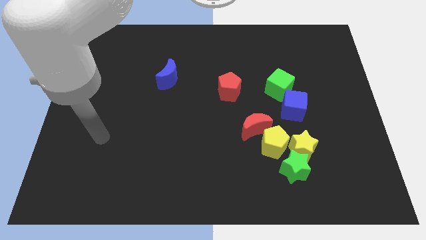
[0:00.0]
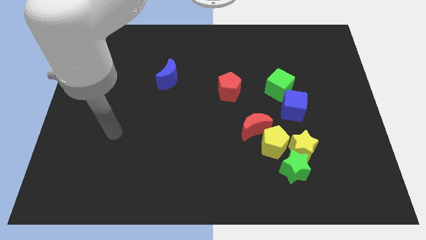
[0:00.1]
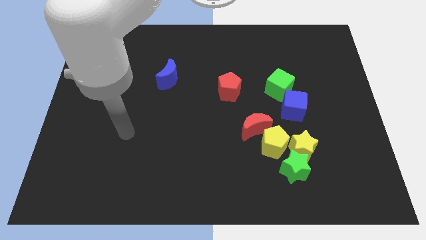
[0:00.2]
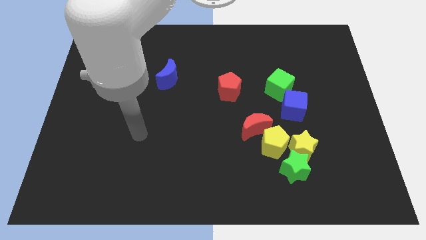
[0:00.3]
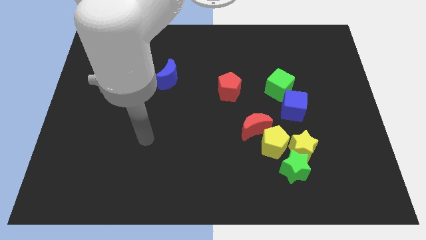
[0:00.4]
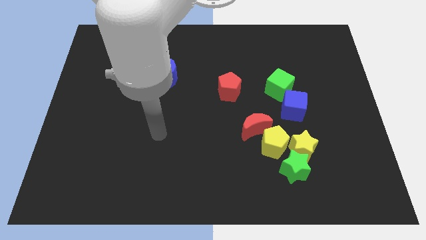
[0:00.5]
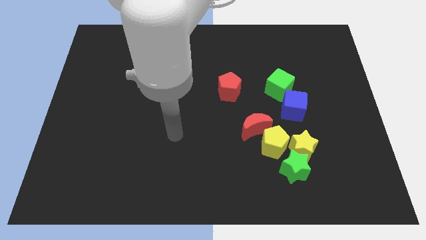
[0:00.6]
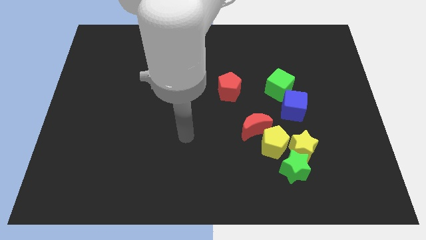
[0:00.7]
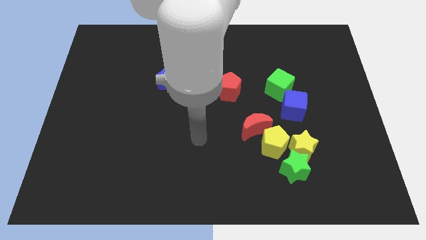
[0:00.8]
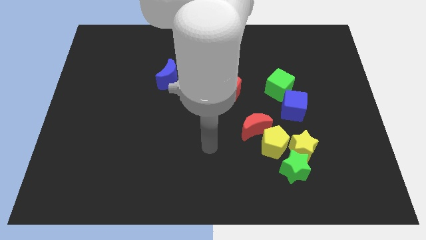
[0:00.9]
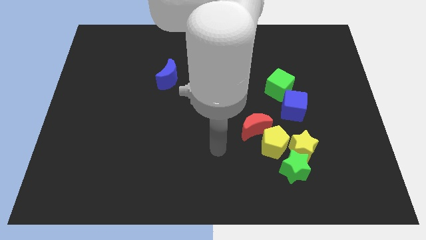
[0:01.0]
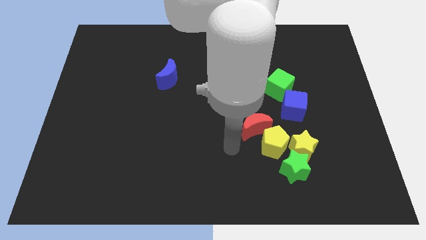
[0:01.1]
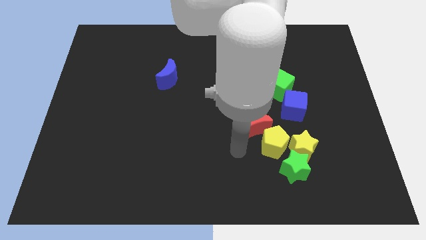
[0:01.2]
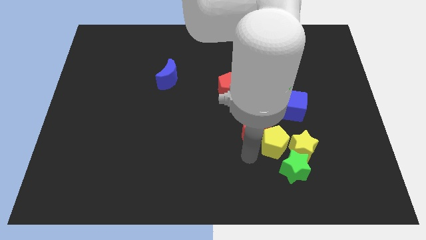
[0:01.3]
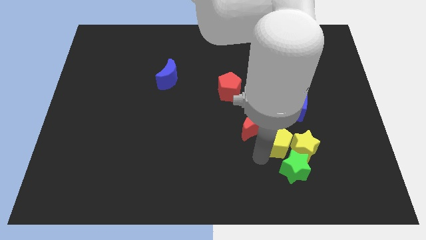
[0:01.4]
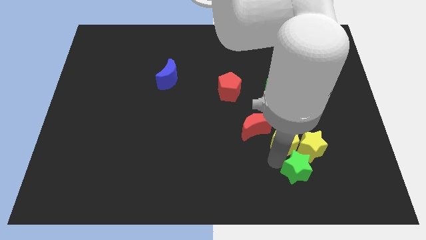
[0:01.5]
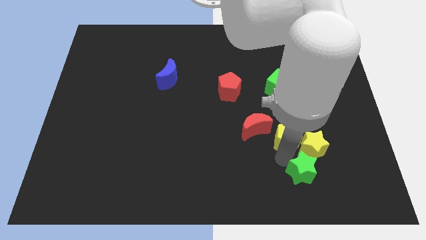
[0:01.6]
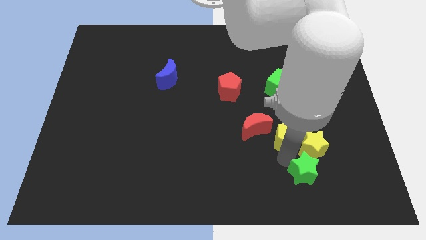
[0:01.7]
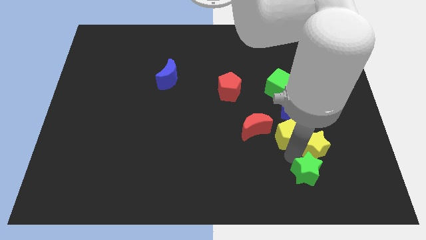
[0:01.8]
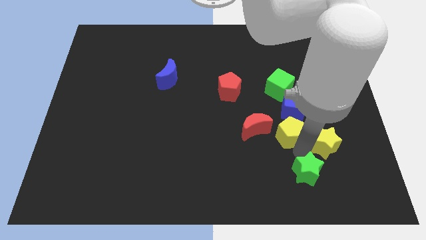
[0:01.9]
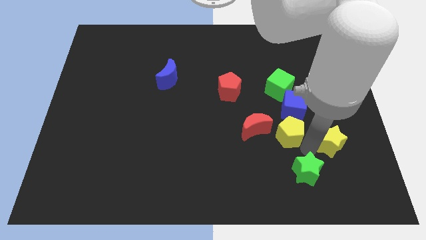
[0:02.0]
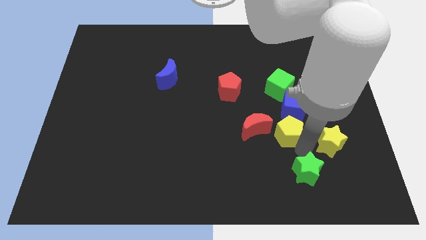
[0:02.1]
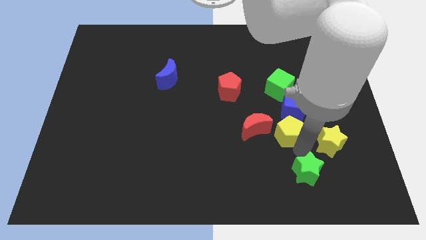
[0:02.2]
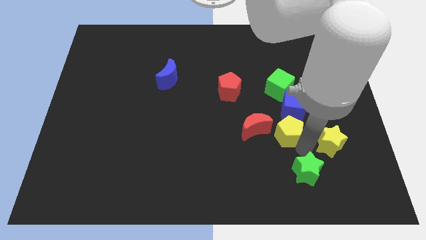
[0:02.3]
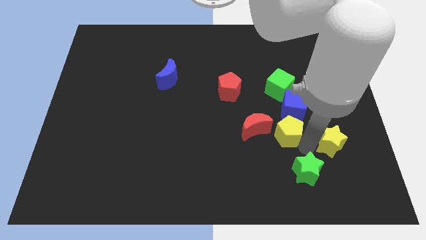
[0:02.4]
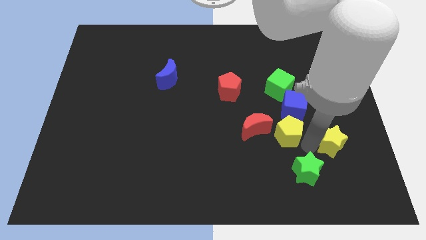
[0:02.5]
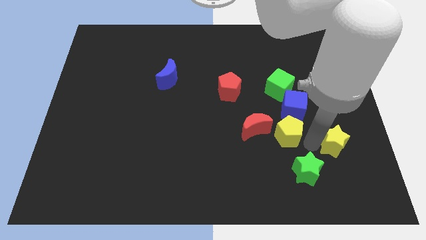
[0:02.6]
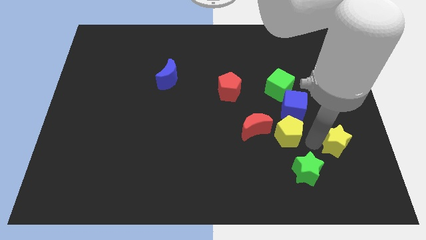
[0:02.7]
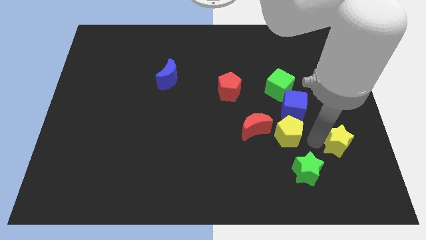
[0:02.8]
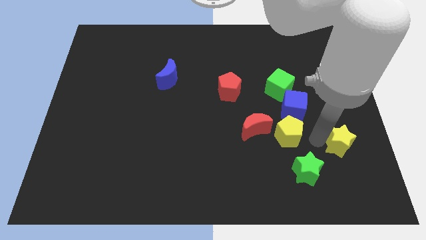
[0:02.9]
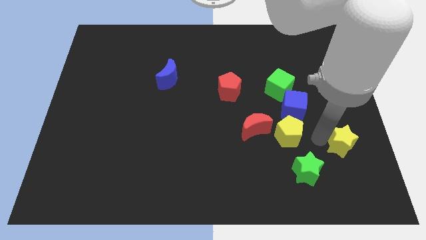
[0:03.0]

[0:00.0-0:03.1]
pull the yellow star apart from the green star and yellow pentagon

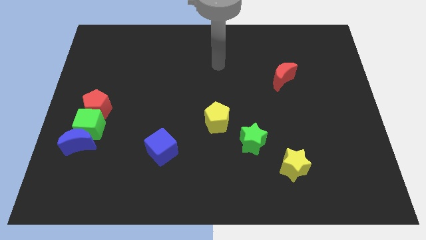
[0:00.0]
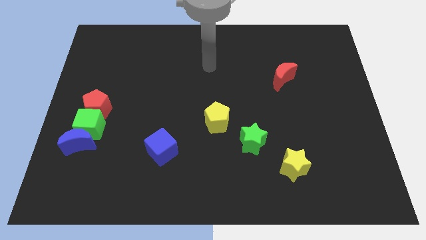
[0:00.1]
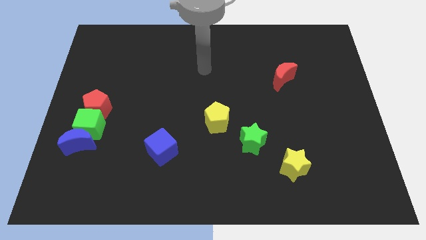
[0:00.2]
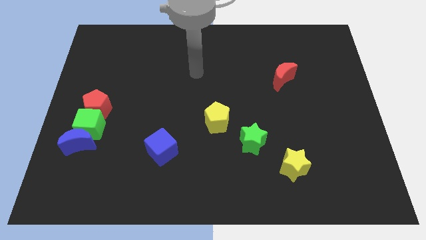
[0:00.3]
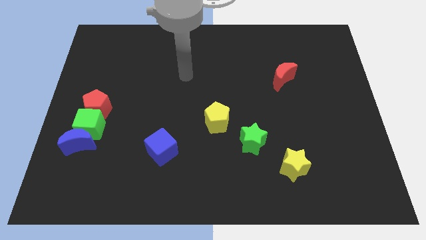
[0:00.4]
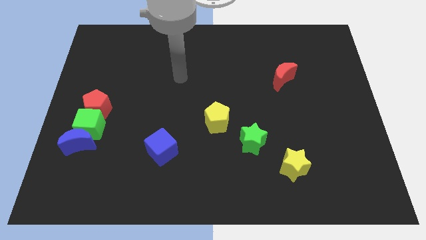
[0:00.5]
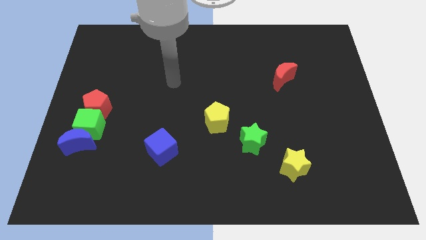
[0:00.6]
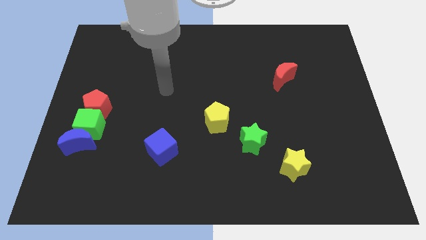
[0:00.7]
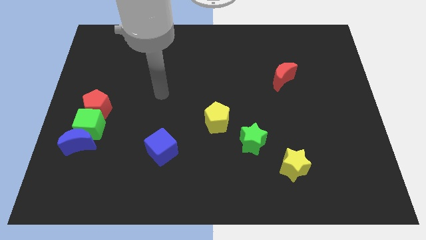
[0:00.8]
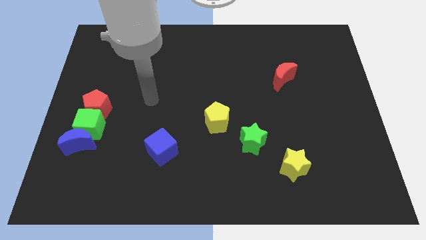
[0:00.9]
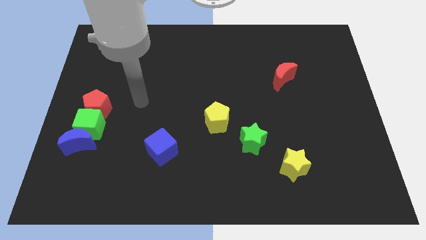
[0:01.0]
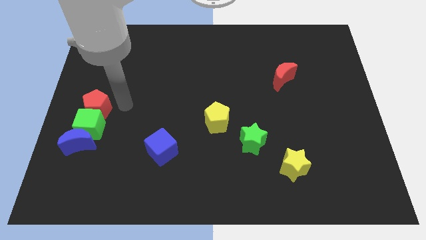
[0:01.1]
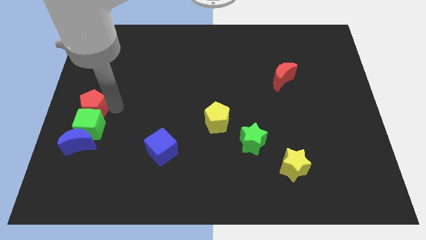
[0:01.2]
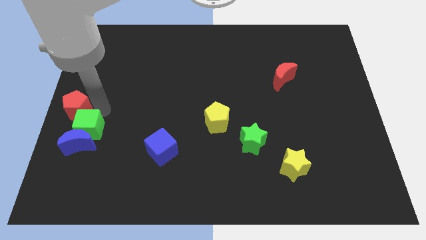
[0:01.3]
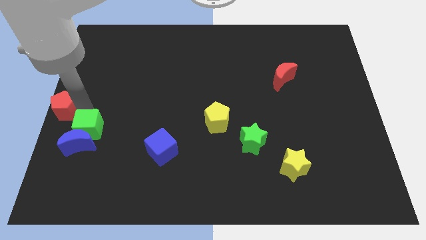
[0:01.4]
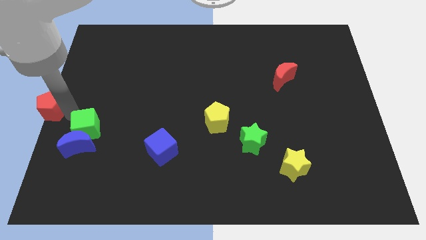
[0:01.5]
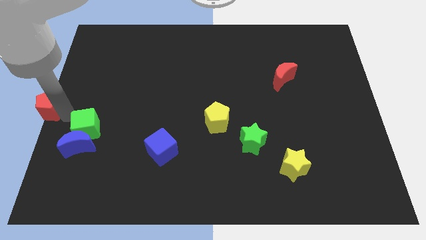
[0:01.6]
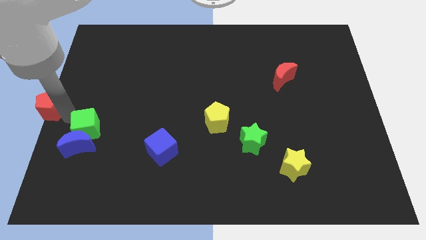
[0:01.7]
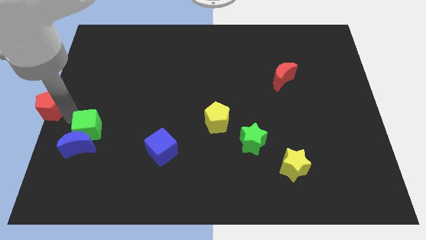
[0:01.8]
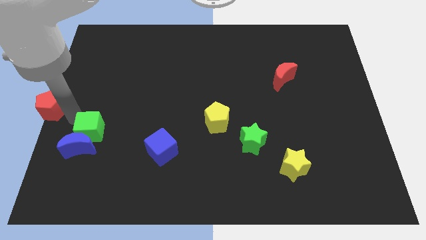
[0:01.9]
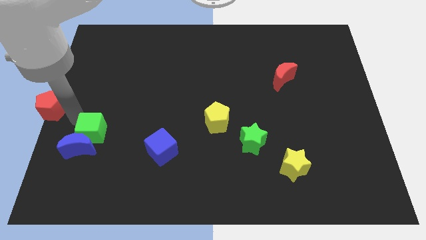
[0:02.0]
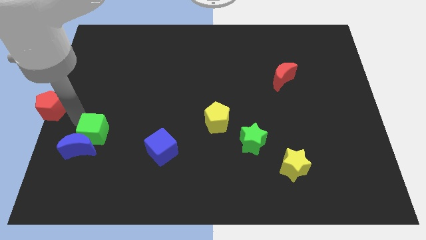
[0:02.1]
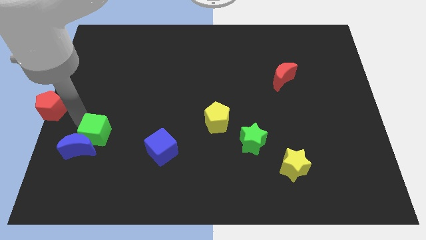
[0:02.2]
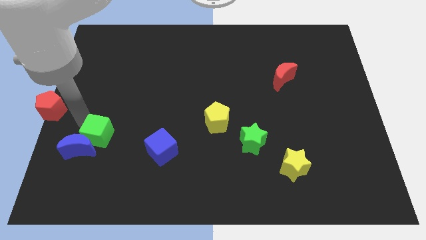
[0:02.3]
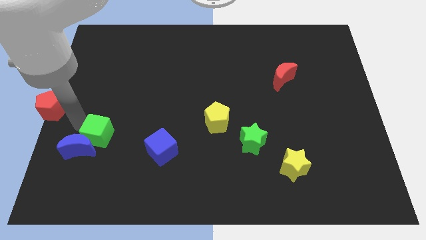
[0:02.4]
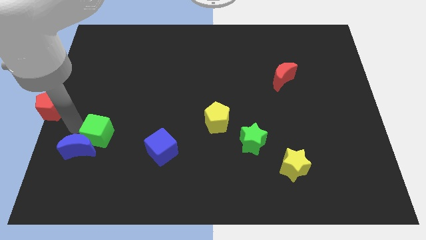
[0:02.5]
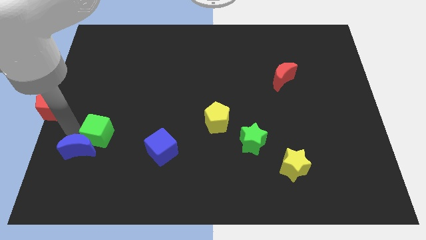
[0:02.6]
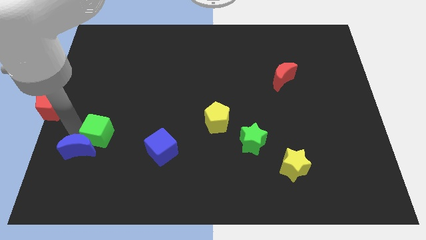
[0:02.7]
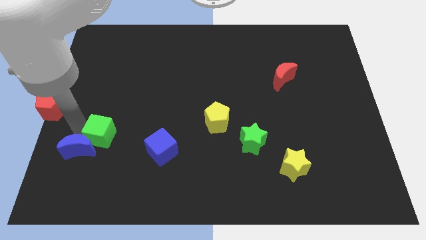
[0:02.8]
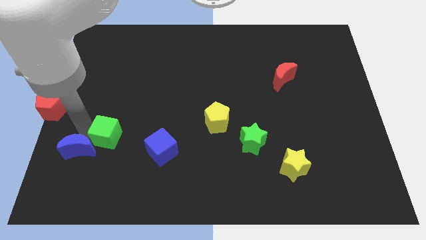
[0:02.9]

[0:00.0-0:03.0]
pull the green cube apart from the blue moon and red pentagon

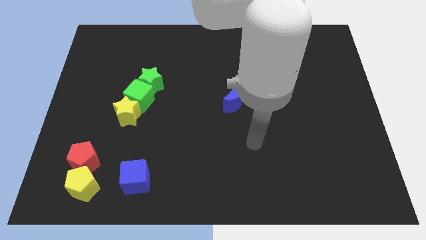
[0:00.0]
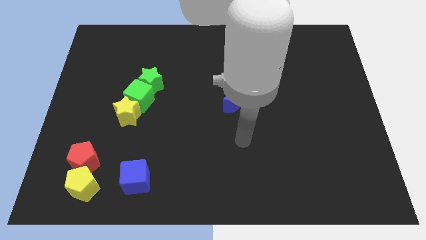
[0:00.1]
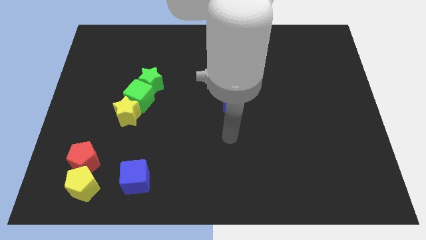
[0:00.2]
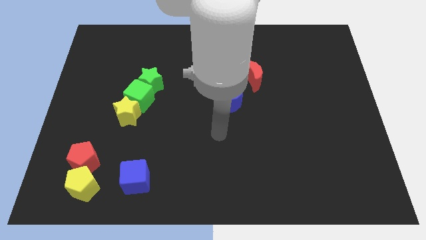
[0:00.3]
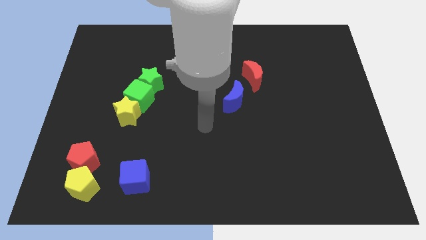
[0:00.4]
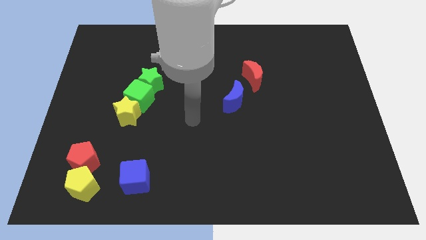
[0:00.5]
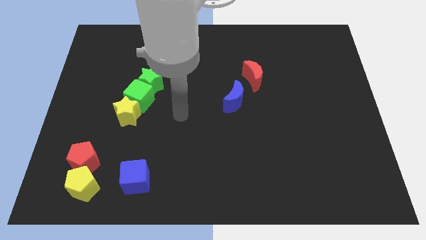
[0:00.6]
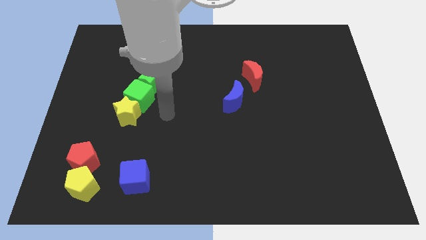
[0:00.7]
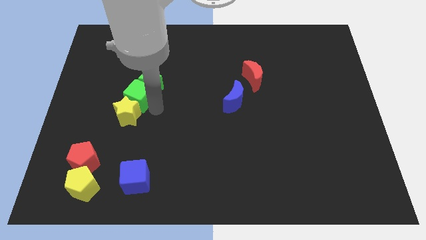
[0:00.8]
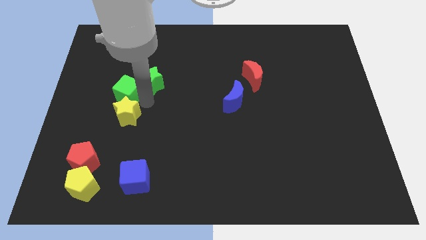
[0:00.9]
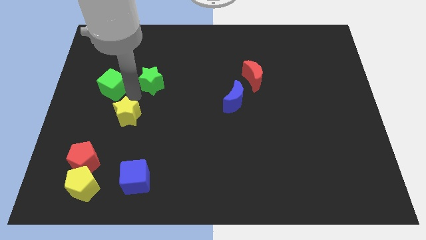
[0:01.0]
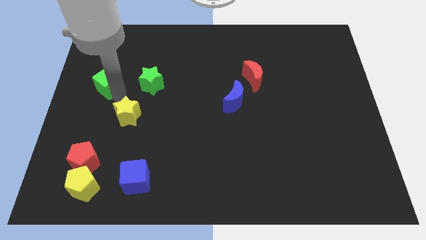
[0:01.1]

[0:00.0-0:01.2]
separate the yellow star from the green cube

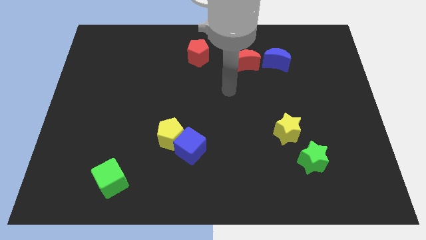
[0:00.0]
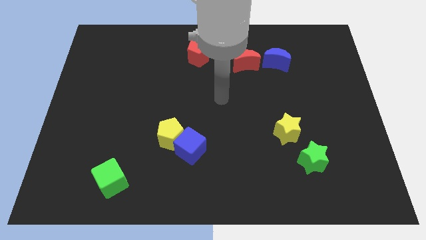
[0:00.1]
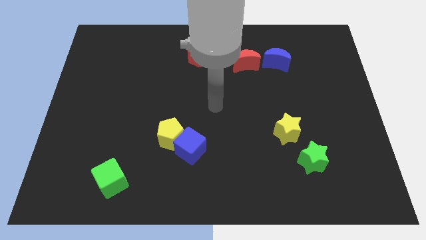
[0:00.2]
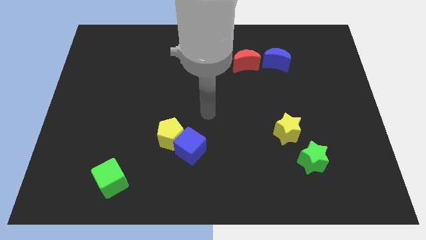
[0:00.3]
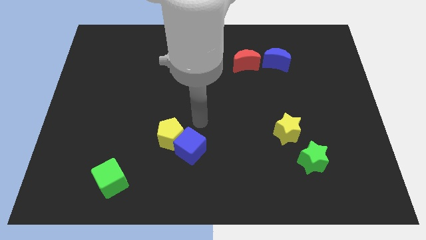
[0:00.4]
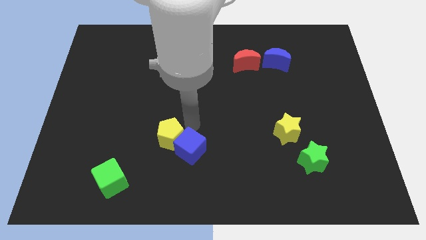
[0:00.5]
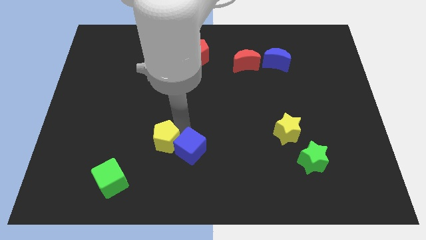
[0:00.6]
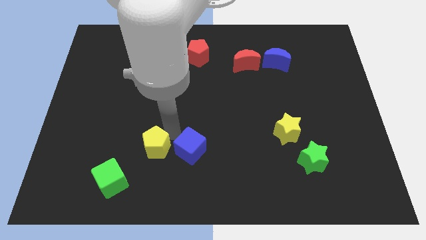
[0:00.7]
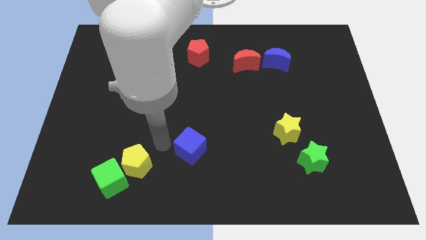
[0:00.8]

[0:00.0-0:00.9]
move the blue cube away from the yellow pentagon

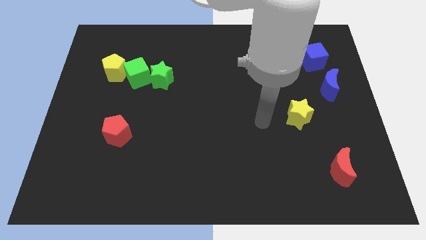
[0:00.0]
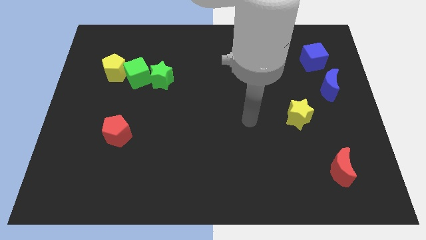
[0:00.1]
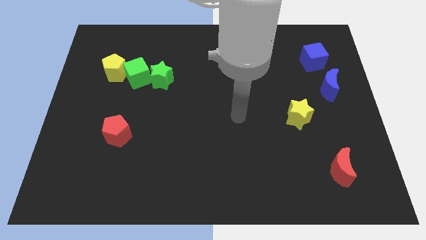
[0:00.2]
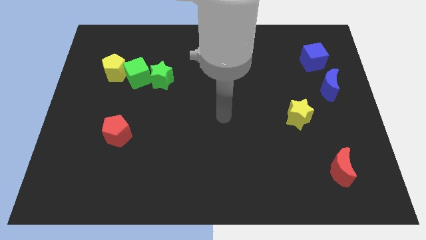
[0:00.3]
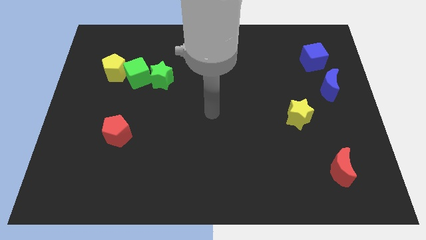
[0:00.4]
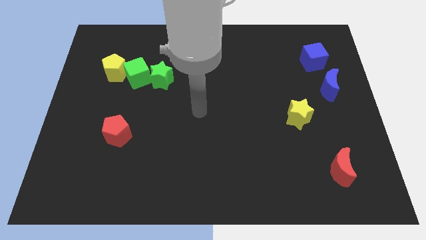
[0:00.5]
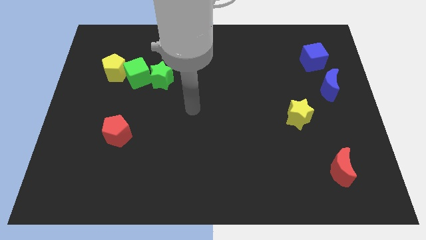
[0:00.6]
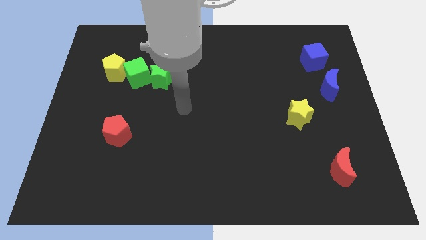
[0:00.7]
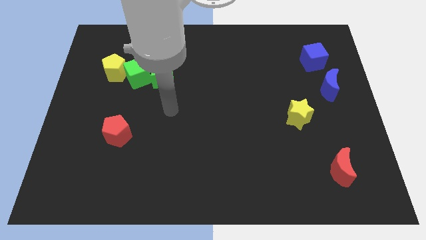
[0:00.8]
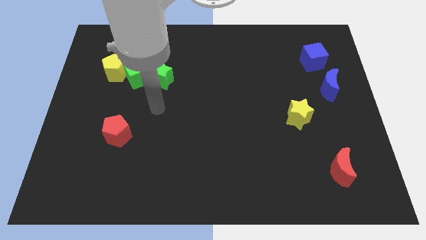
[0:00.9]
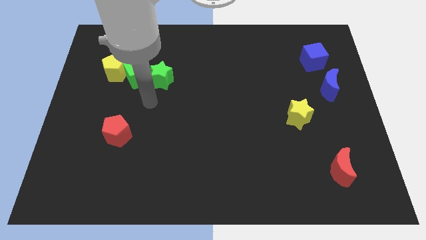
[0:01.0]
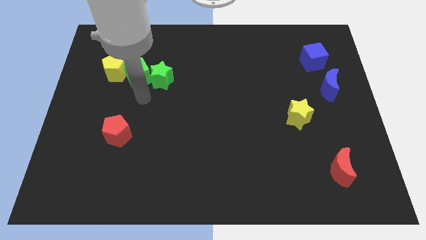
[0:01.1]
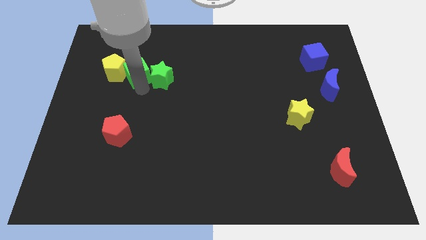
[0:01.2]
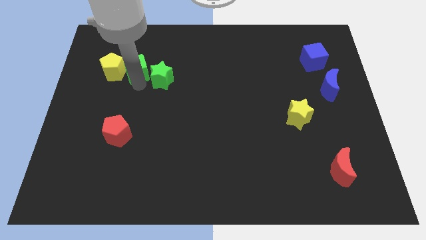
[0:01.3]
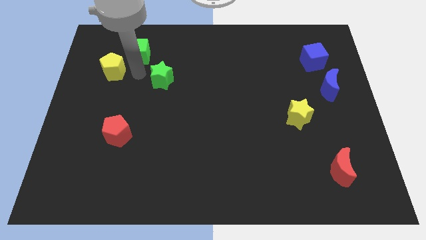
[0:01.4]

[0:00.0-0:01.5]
separate the green star from the green cube
